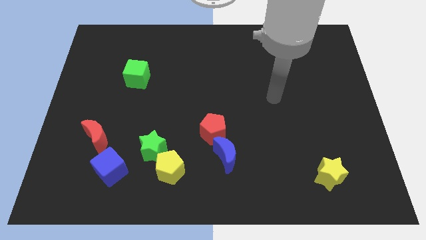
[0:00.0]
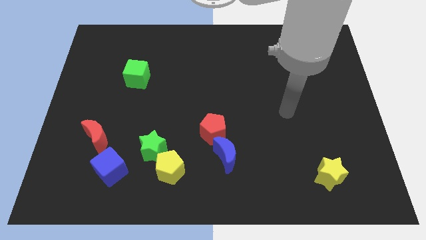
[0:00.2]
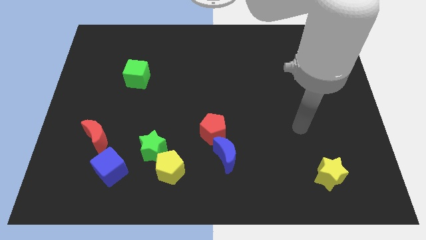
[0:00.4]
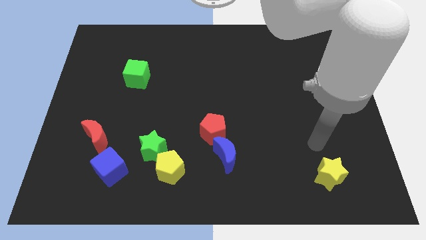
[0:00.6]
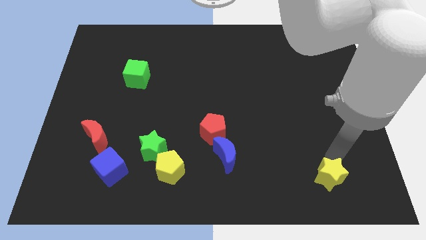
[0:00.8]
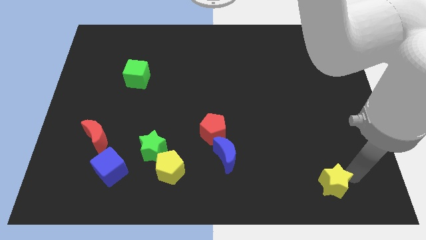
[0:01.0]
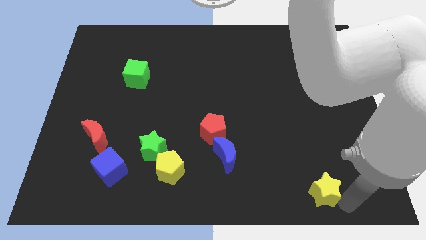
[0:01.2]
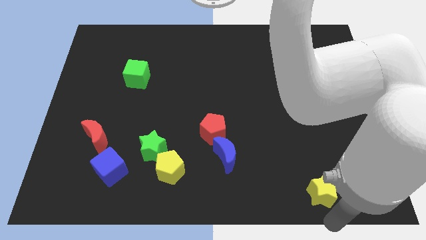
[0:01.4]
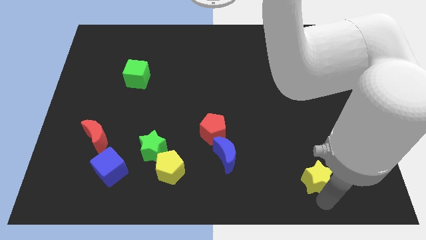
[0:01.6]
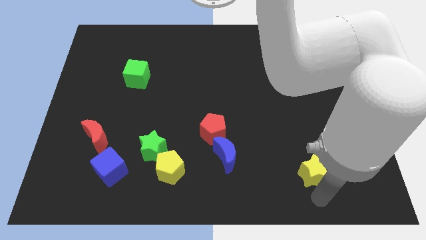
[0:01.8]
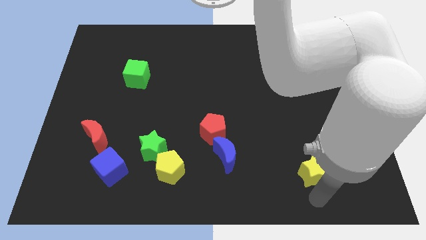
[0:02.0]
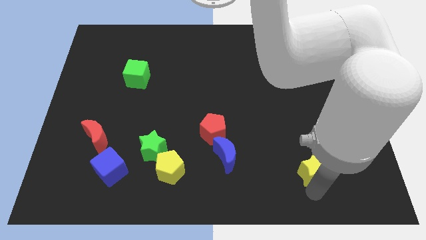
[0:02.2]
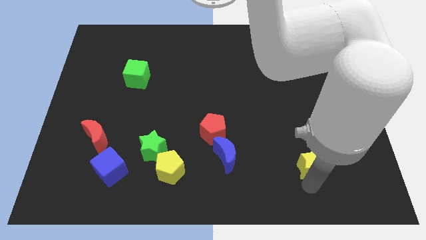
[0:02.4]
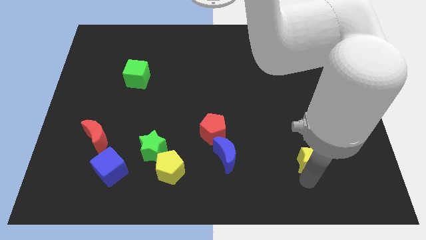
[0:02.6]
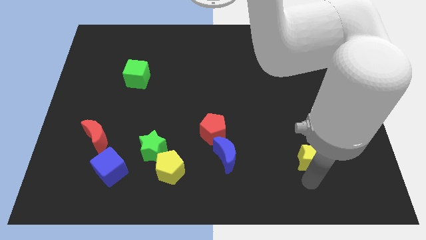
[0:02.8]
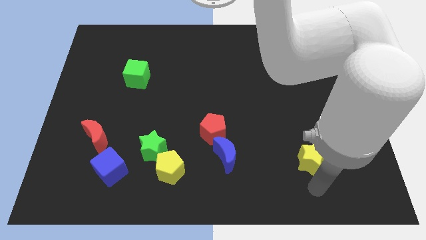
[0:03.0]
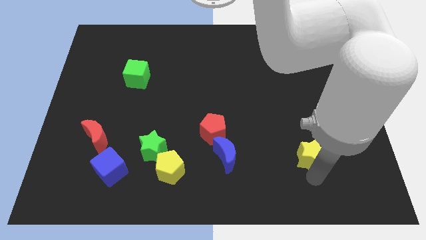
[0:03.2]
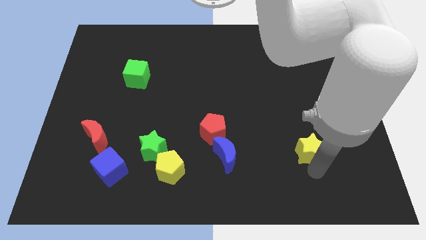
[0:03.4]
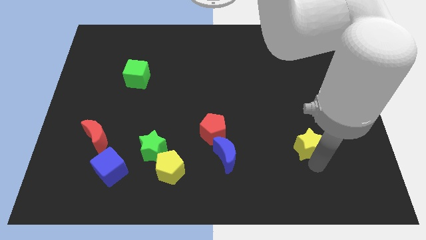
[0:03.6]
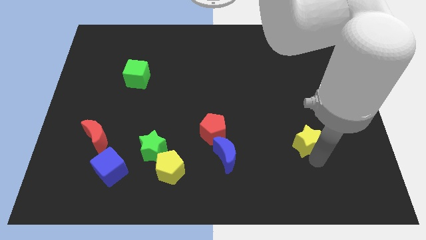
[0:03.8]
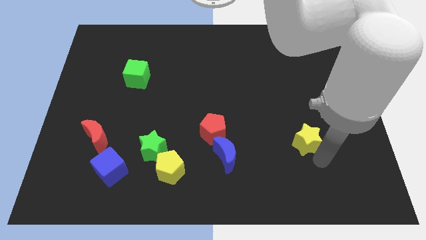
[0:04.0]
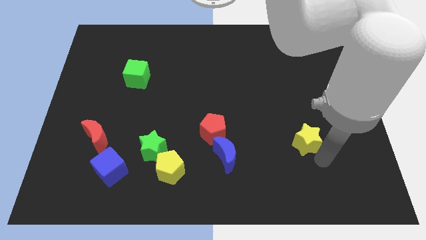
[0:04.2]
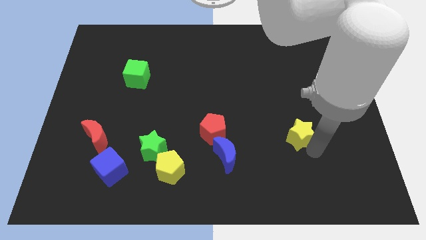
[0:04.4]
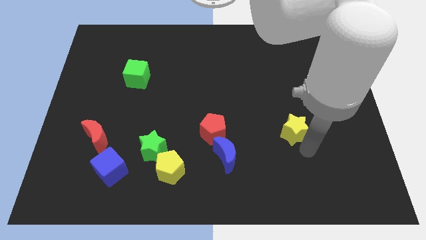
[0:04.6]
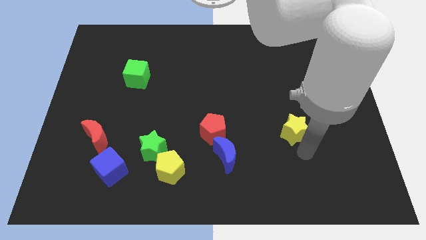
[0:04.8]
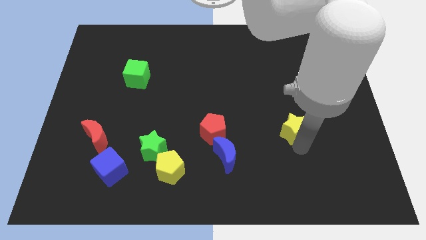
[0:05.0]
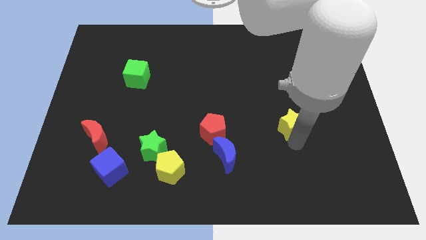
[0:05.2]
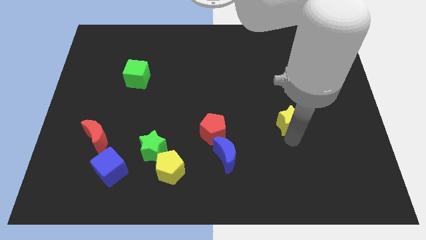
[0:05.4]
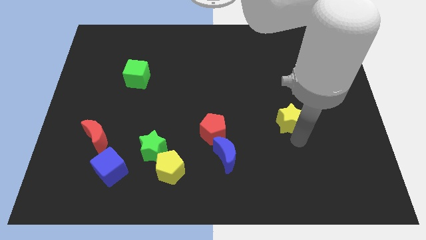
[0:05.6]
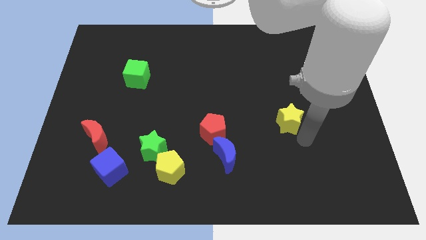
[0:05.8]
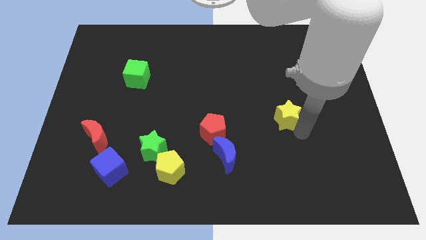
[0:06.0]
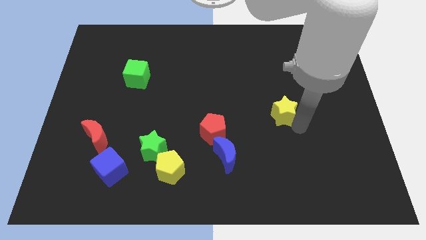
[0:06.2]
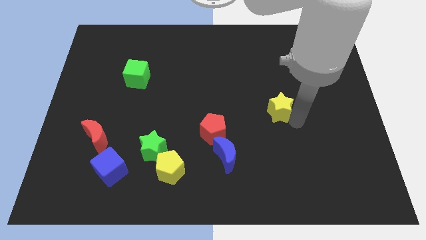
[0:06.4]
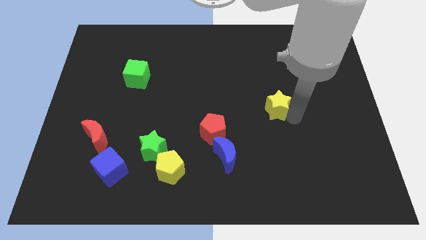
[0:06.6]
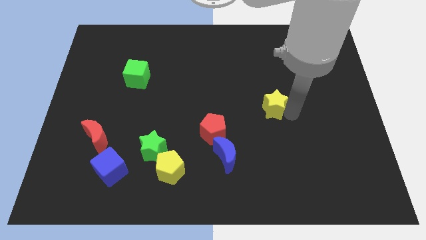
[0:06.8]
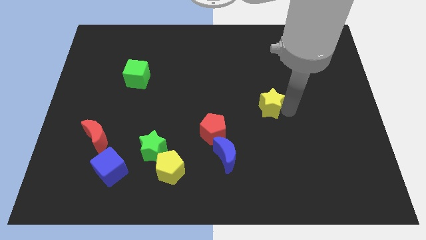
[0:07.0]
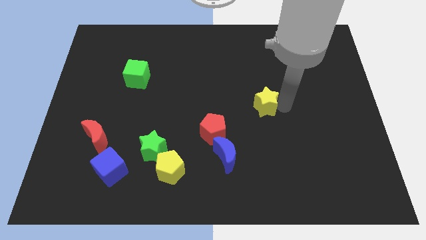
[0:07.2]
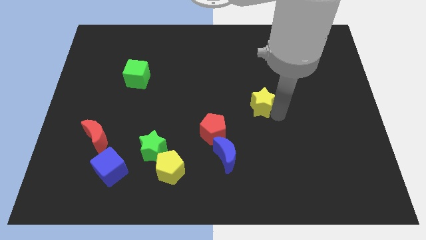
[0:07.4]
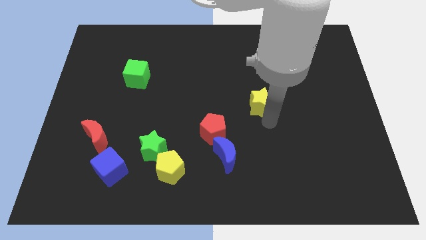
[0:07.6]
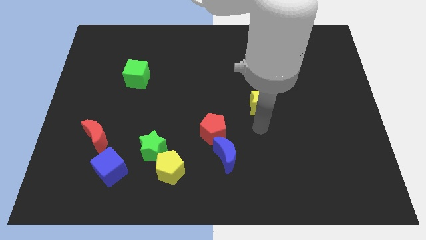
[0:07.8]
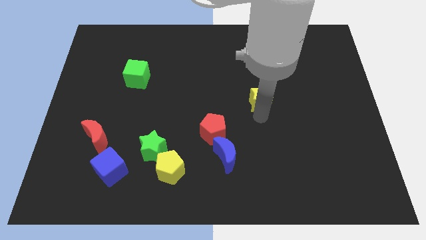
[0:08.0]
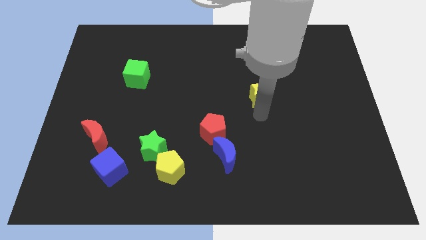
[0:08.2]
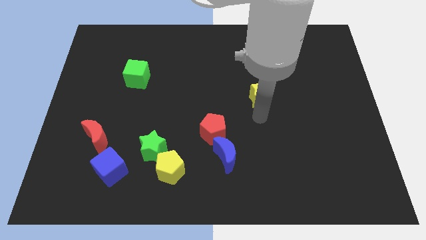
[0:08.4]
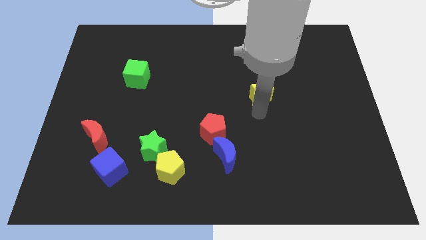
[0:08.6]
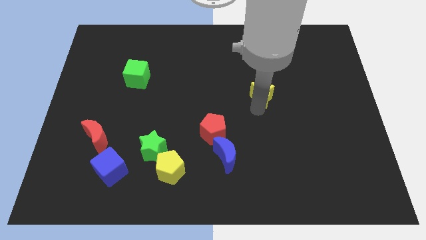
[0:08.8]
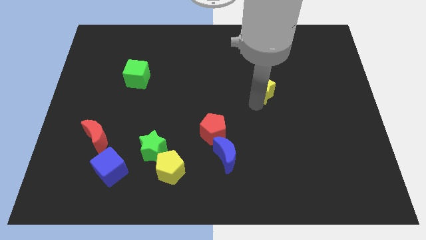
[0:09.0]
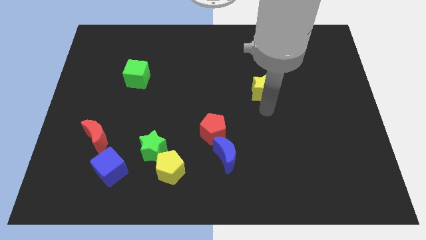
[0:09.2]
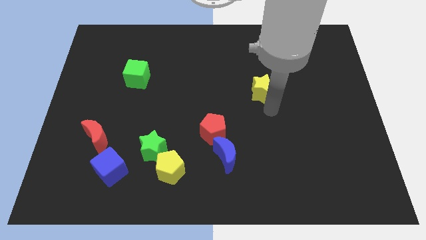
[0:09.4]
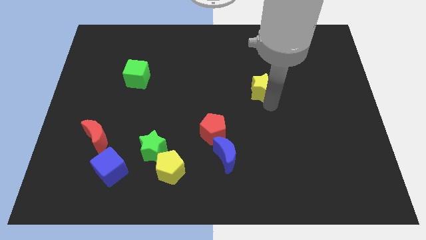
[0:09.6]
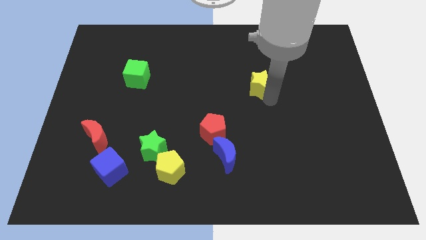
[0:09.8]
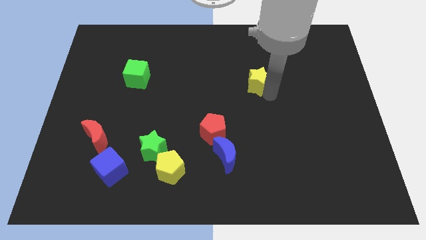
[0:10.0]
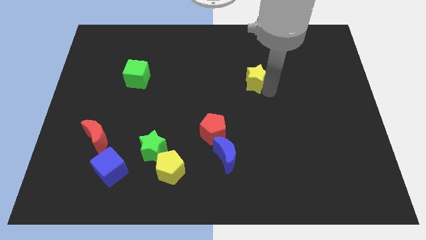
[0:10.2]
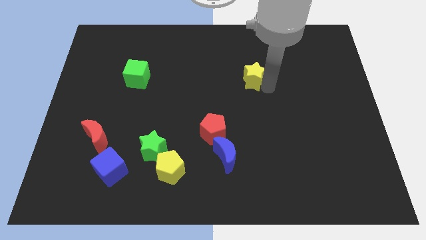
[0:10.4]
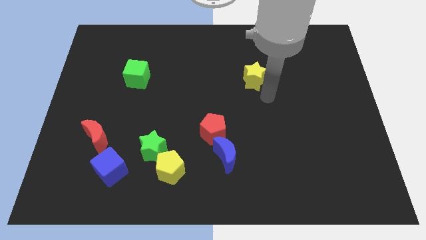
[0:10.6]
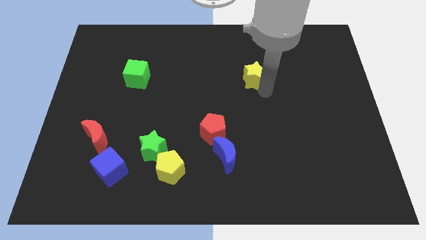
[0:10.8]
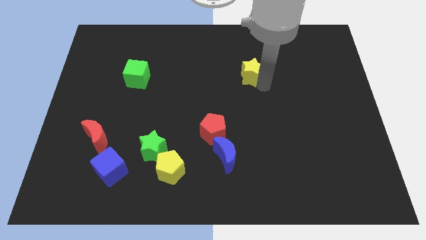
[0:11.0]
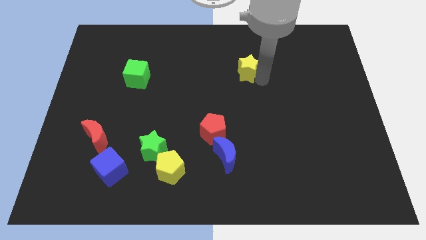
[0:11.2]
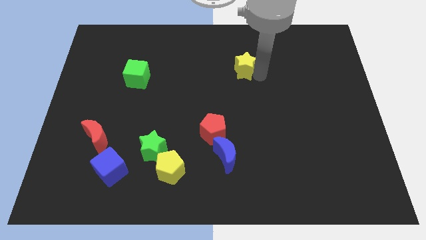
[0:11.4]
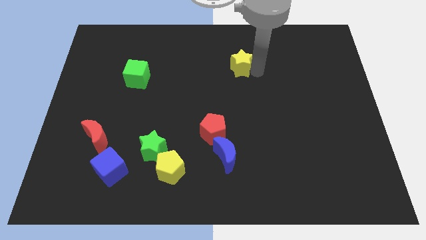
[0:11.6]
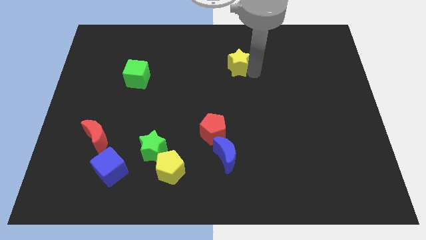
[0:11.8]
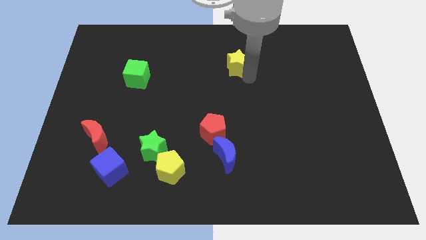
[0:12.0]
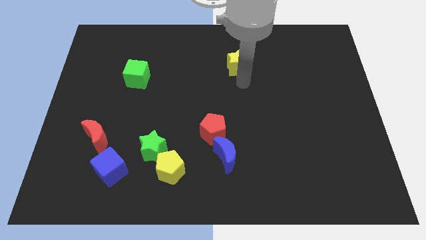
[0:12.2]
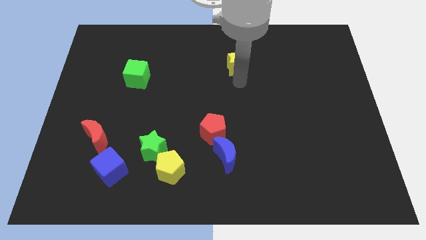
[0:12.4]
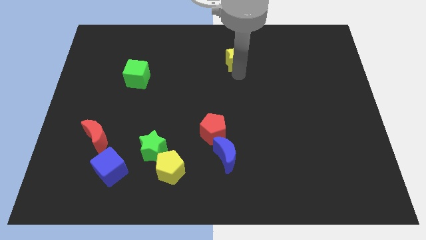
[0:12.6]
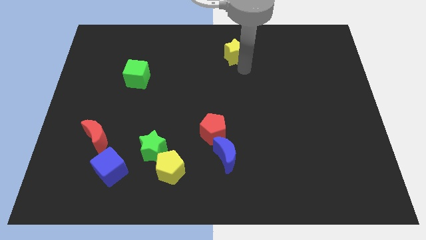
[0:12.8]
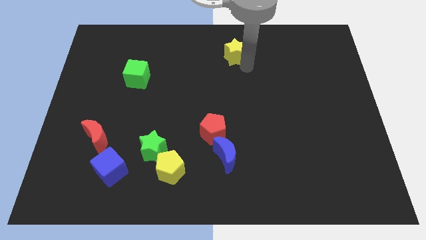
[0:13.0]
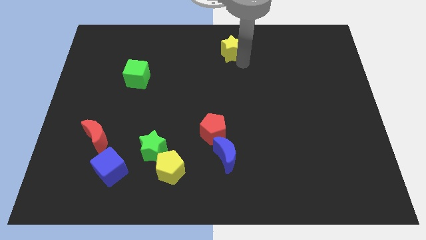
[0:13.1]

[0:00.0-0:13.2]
push the yellow star to the towards your base
